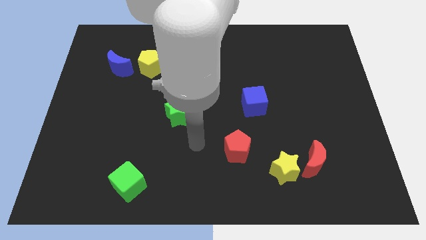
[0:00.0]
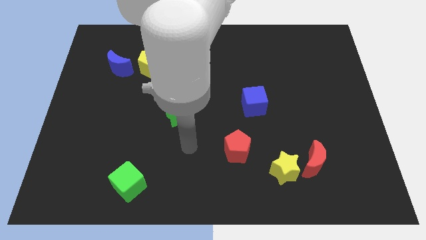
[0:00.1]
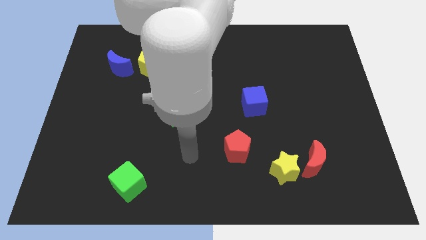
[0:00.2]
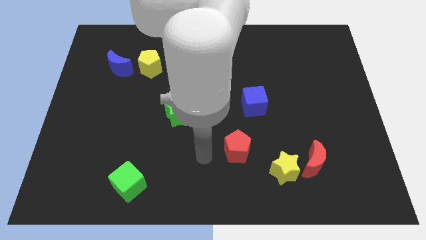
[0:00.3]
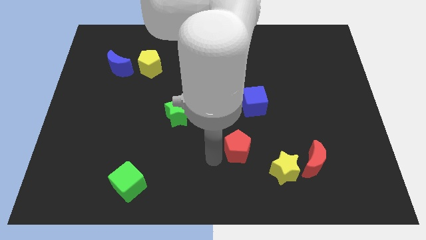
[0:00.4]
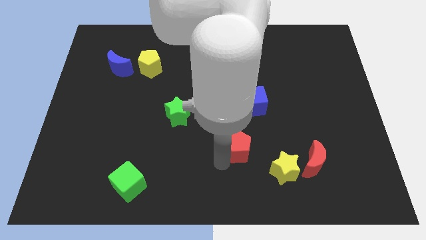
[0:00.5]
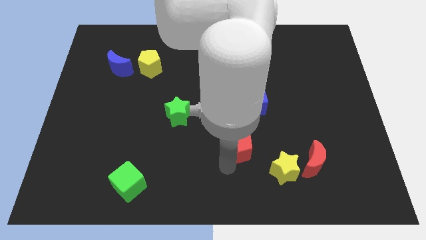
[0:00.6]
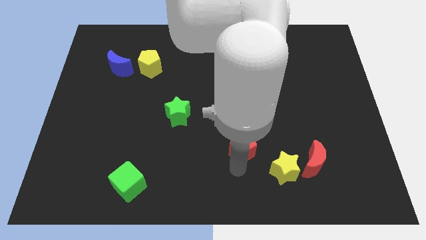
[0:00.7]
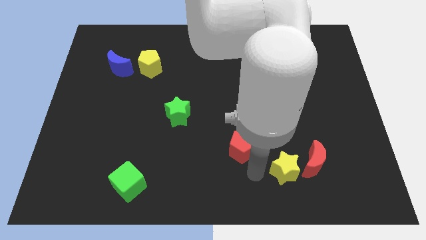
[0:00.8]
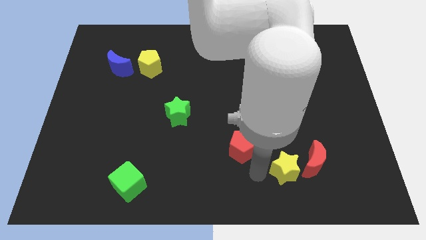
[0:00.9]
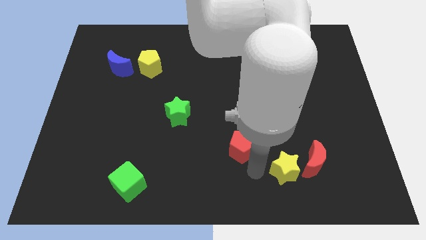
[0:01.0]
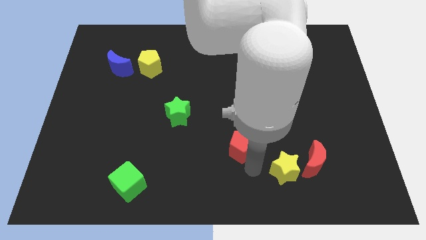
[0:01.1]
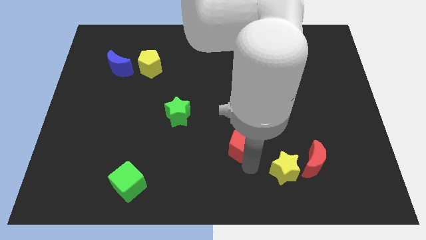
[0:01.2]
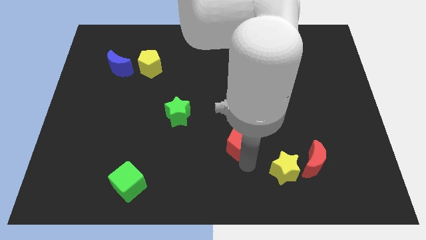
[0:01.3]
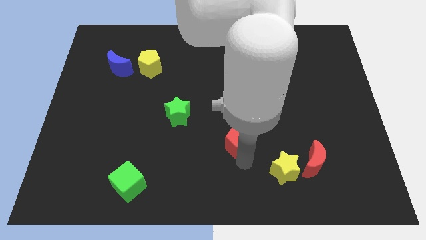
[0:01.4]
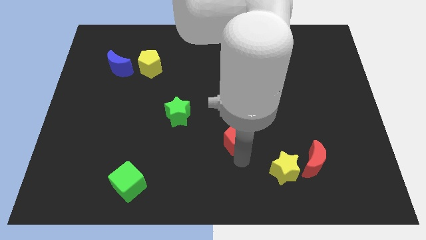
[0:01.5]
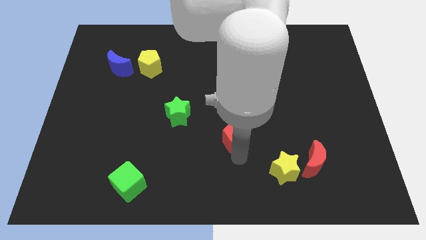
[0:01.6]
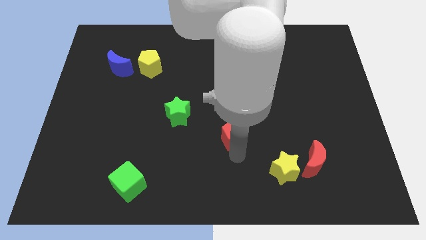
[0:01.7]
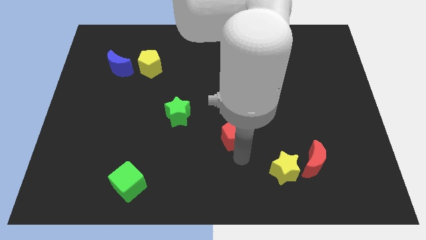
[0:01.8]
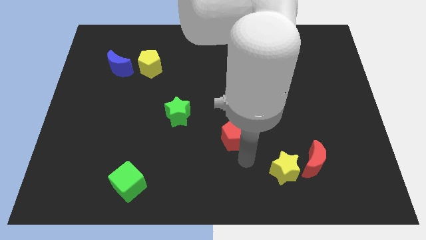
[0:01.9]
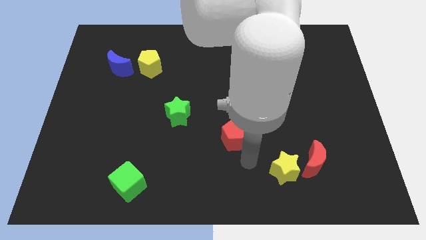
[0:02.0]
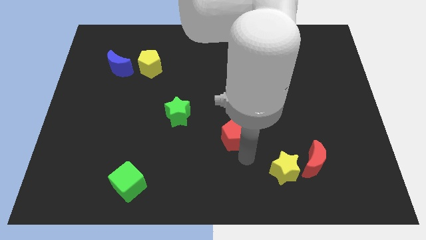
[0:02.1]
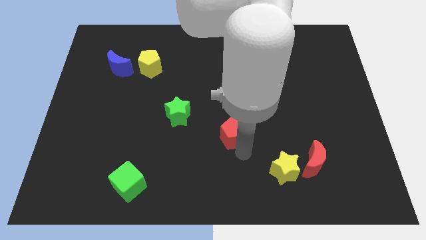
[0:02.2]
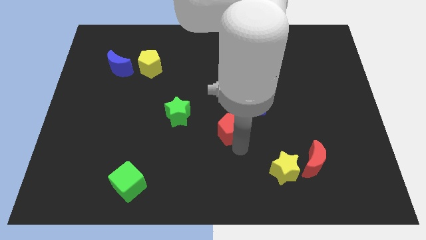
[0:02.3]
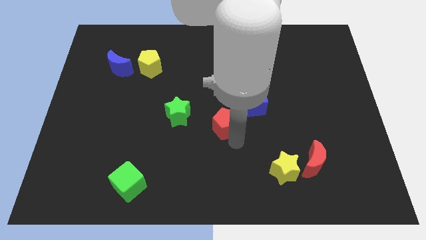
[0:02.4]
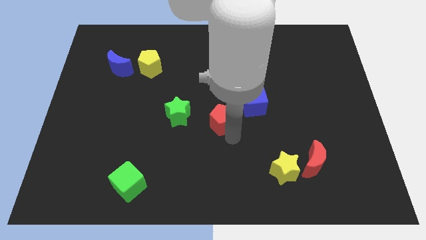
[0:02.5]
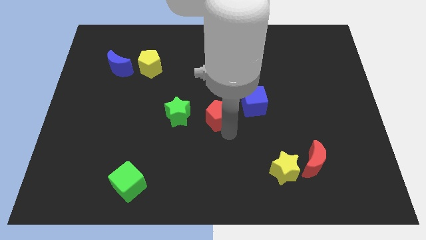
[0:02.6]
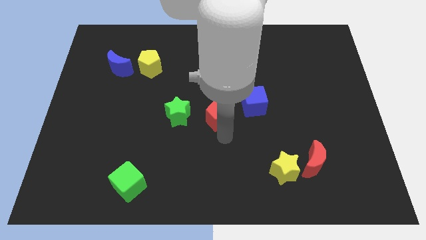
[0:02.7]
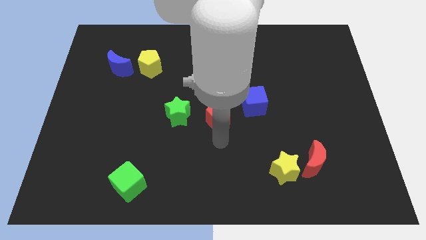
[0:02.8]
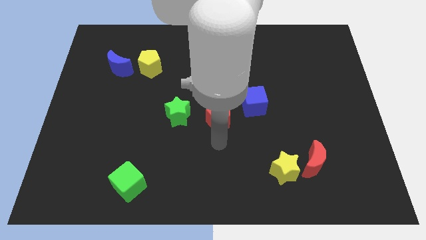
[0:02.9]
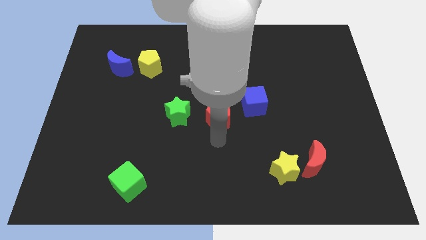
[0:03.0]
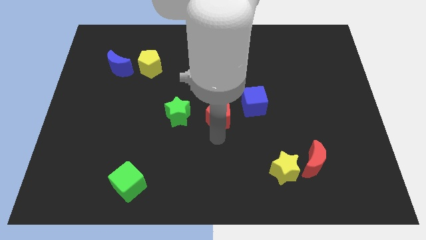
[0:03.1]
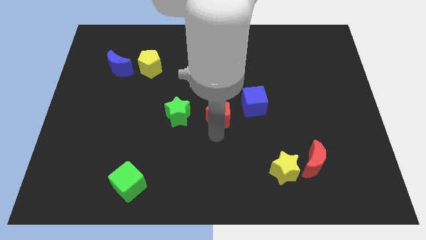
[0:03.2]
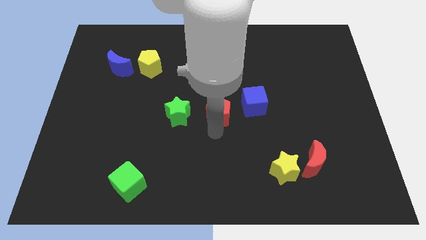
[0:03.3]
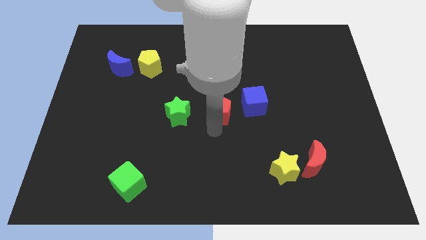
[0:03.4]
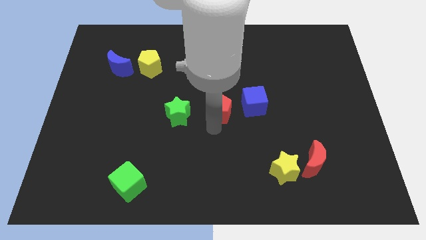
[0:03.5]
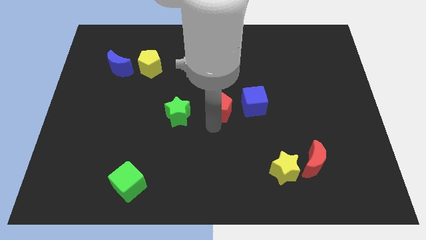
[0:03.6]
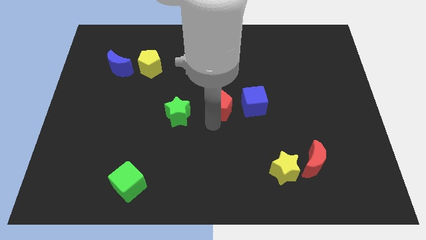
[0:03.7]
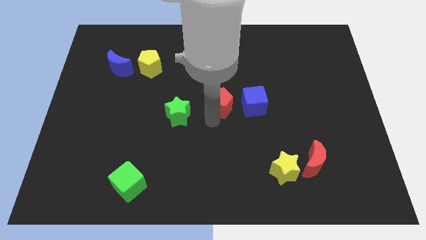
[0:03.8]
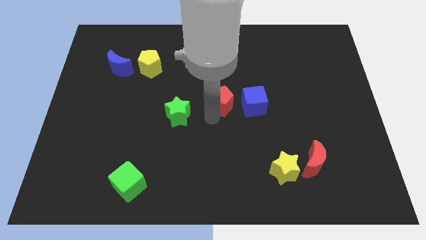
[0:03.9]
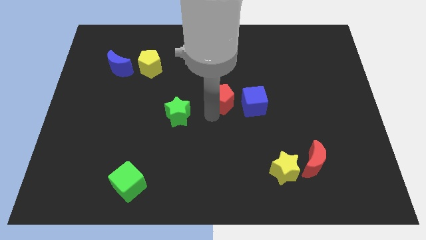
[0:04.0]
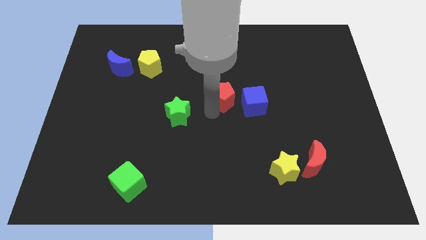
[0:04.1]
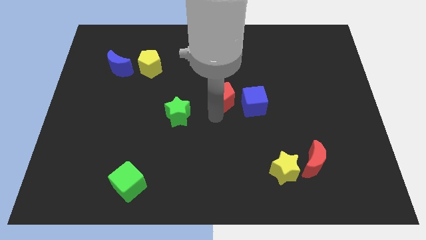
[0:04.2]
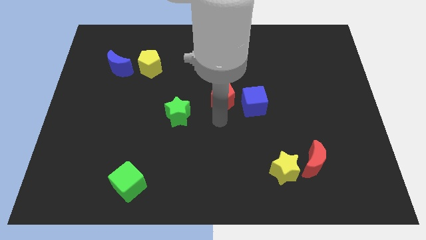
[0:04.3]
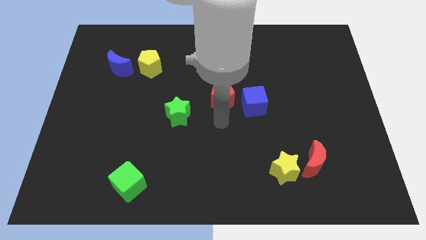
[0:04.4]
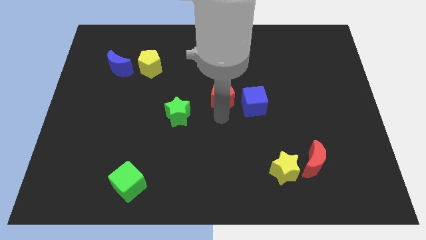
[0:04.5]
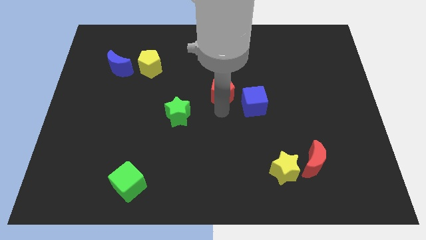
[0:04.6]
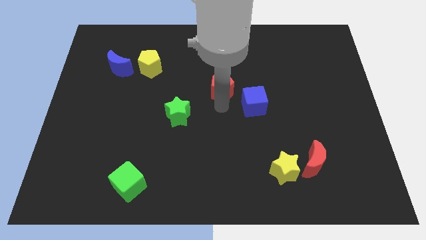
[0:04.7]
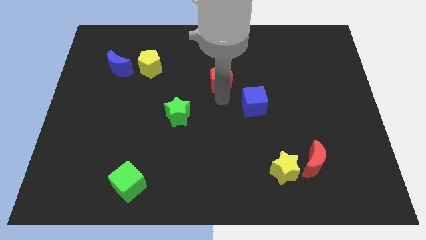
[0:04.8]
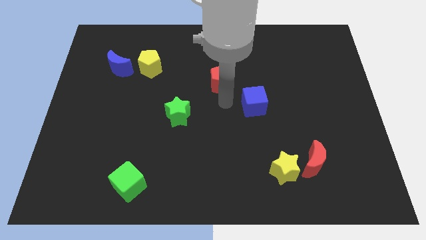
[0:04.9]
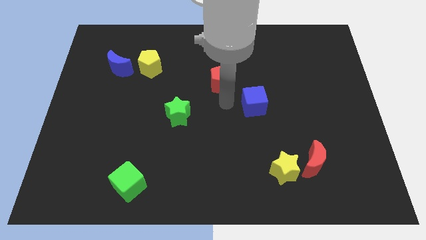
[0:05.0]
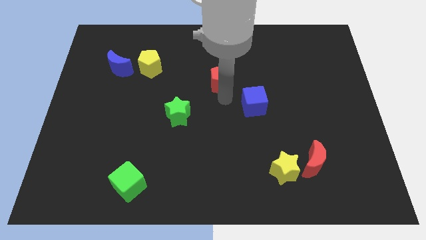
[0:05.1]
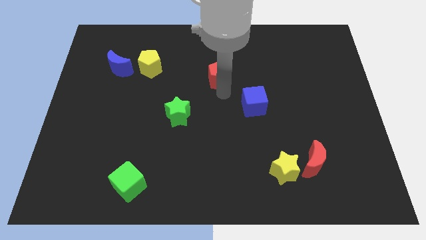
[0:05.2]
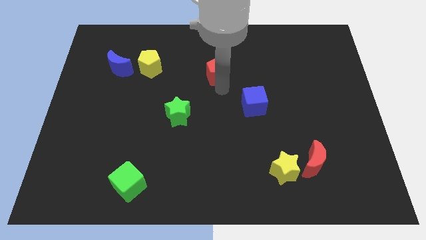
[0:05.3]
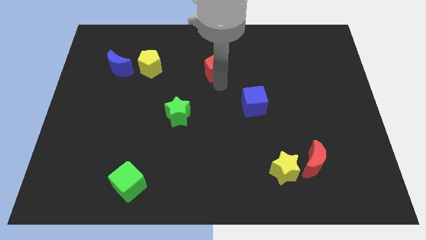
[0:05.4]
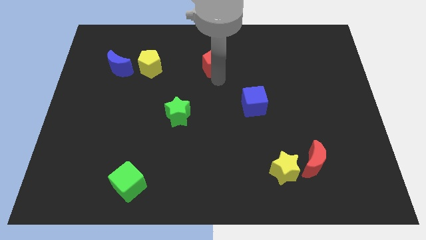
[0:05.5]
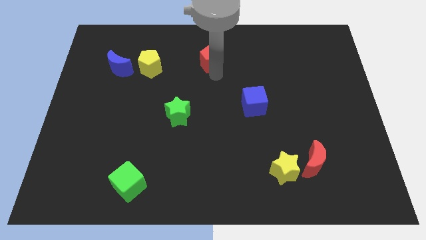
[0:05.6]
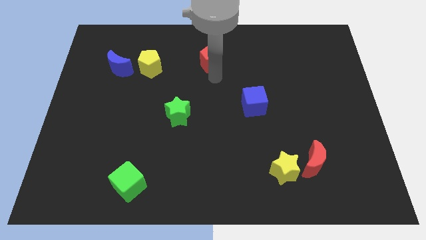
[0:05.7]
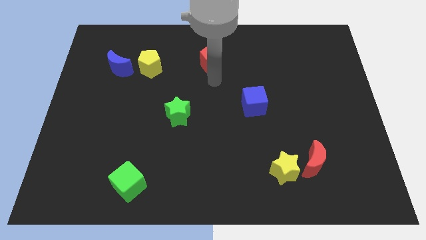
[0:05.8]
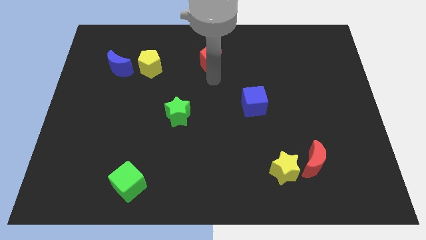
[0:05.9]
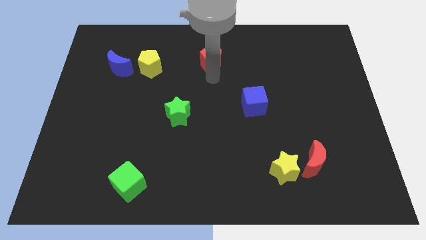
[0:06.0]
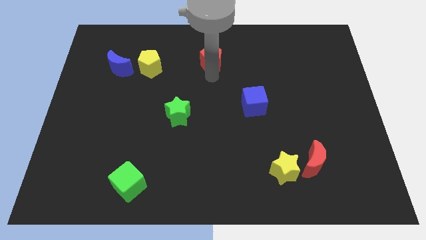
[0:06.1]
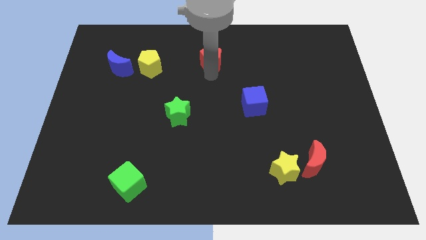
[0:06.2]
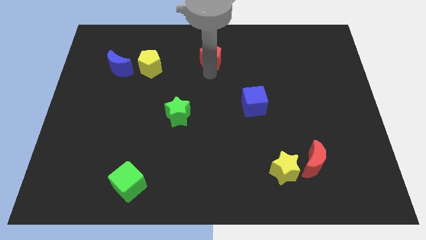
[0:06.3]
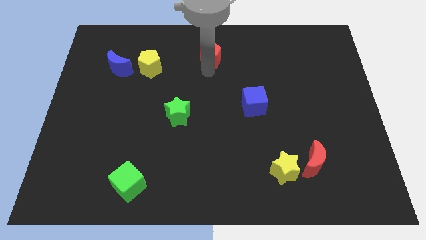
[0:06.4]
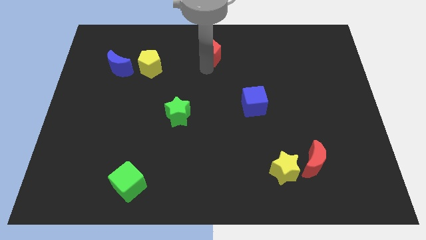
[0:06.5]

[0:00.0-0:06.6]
slide the red pentagon to the top side

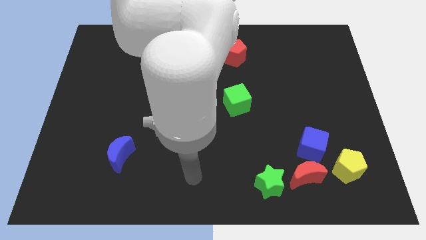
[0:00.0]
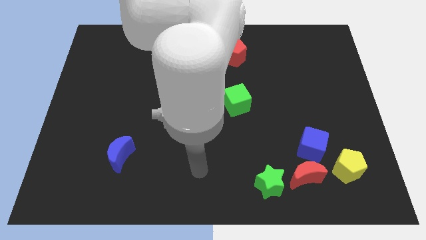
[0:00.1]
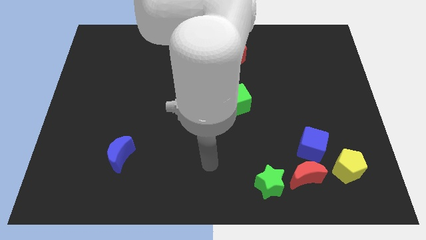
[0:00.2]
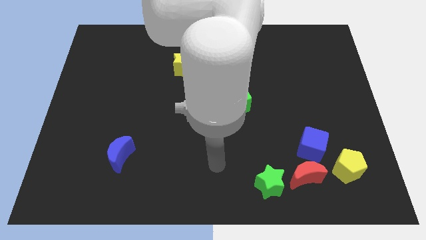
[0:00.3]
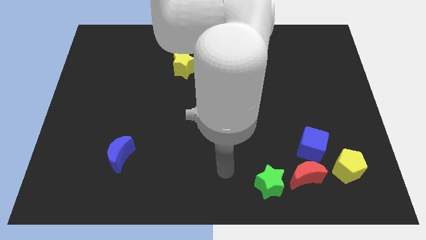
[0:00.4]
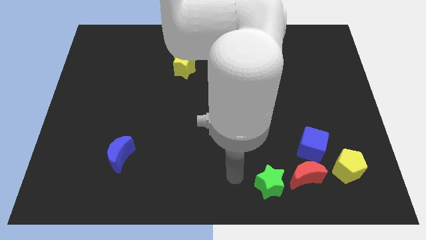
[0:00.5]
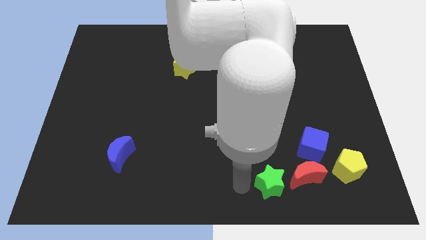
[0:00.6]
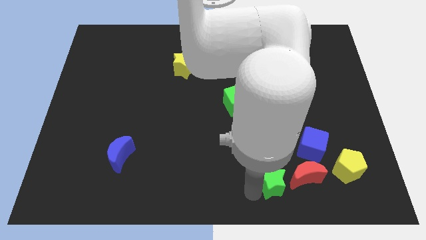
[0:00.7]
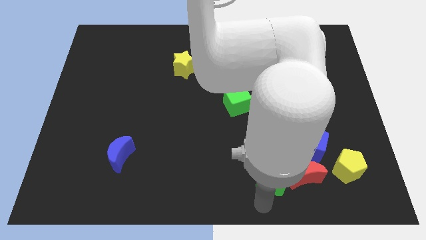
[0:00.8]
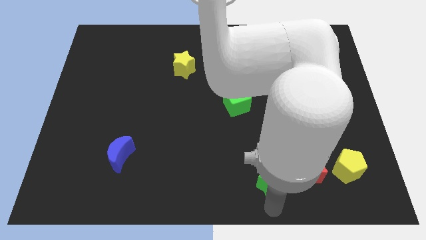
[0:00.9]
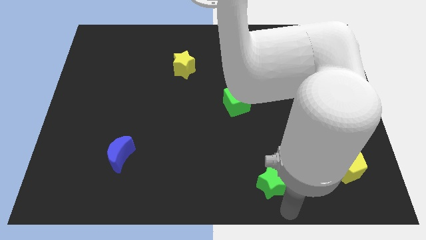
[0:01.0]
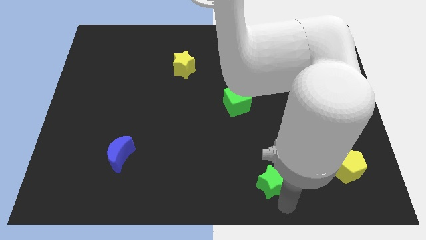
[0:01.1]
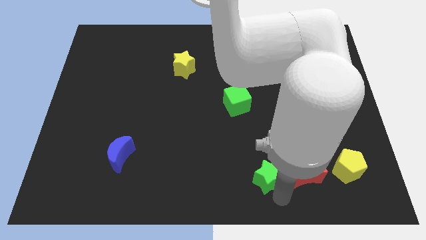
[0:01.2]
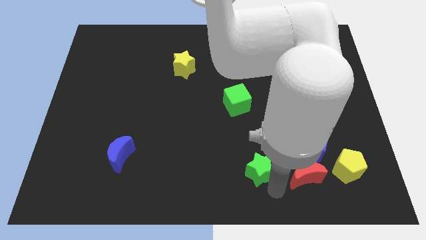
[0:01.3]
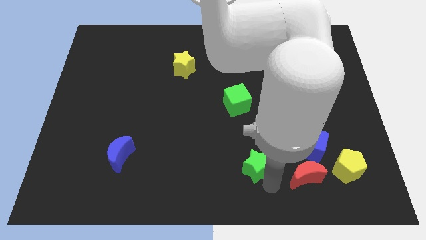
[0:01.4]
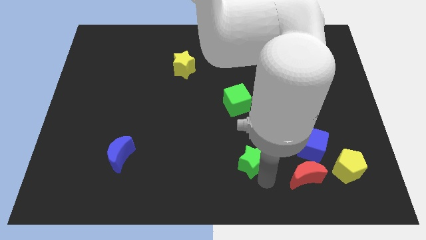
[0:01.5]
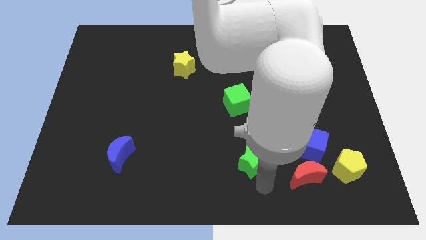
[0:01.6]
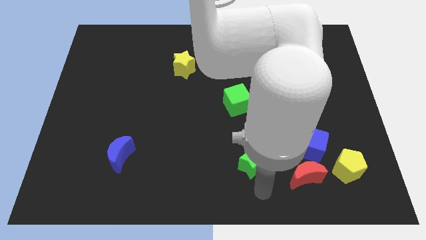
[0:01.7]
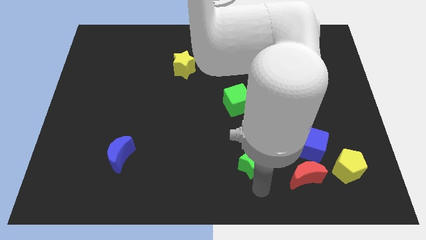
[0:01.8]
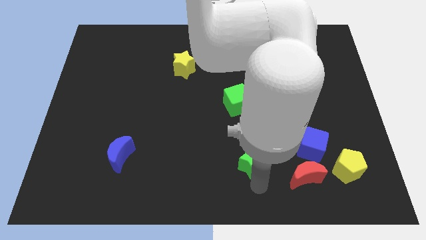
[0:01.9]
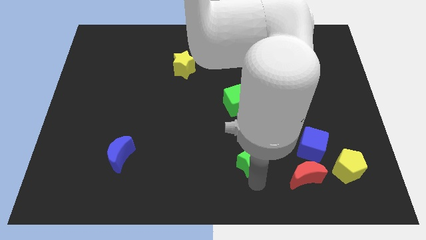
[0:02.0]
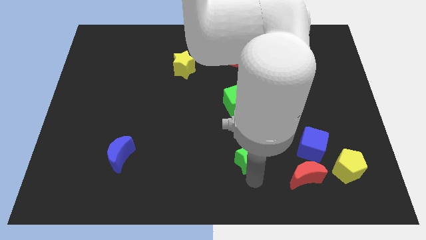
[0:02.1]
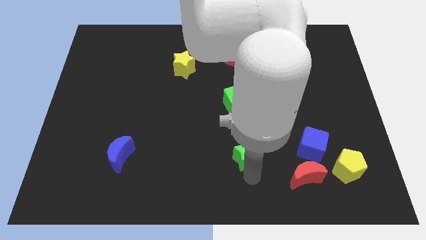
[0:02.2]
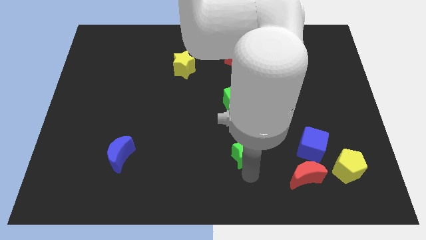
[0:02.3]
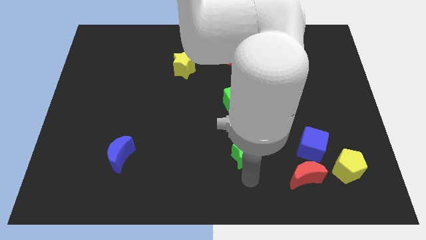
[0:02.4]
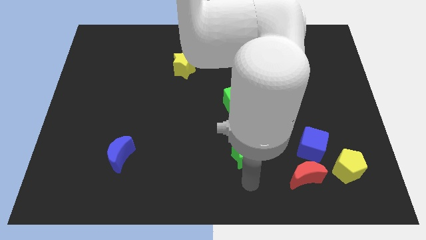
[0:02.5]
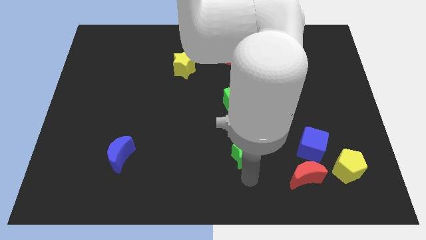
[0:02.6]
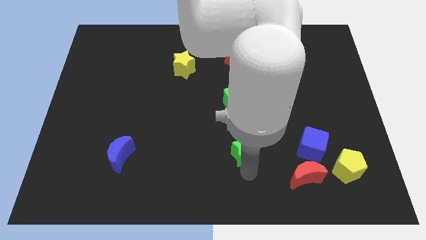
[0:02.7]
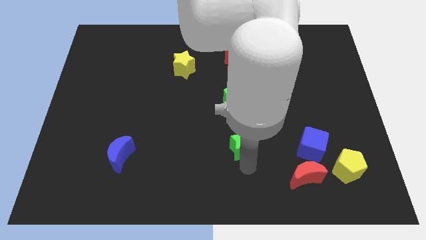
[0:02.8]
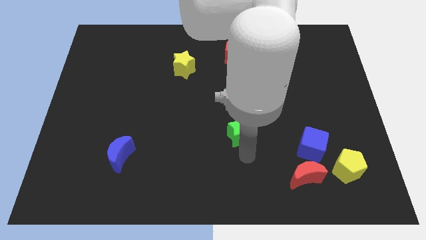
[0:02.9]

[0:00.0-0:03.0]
push the green star to the center
